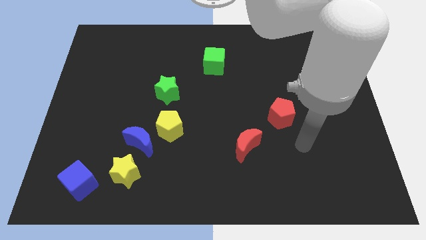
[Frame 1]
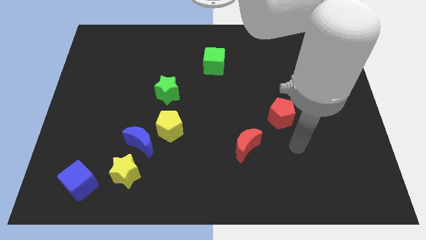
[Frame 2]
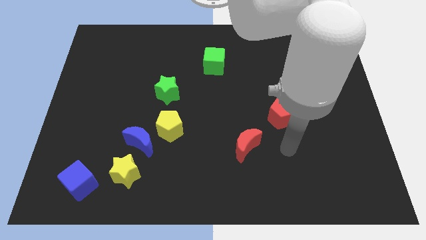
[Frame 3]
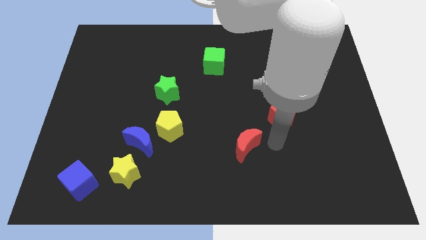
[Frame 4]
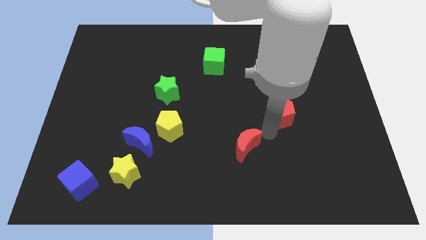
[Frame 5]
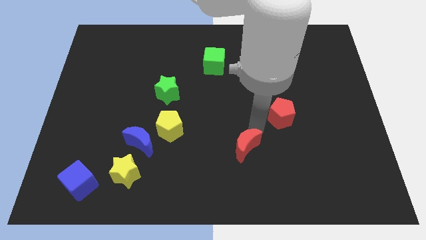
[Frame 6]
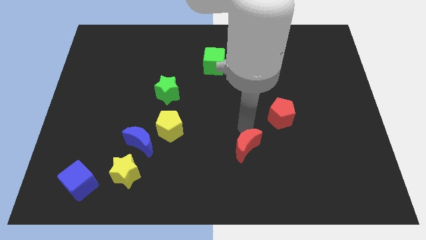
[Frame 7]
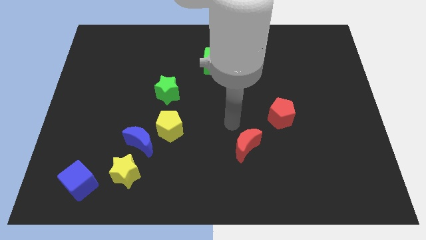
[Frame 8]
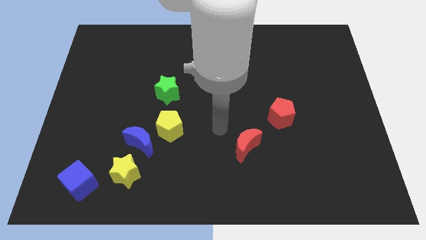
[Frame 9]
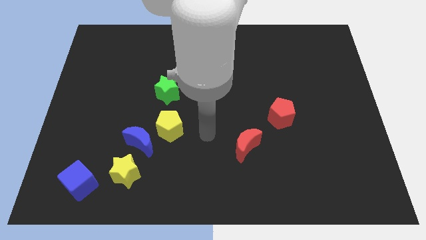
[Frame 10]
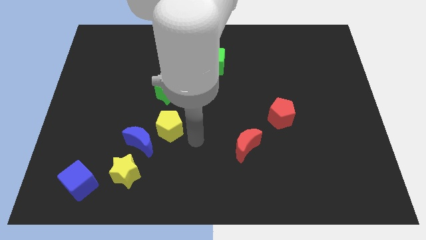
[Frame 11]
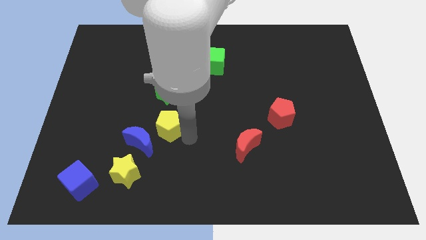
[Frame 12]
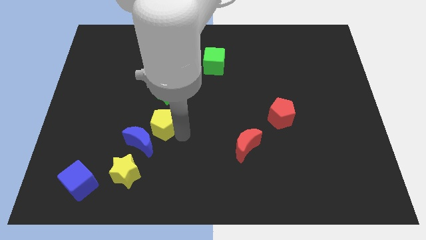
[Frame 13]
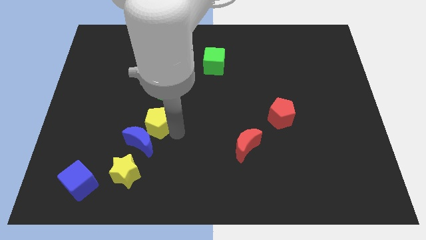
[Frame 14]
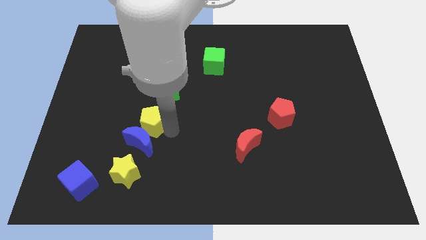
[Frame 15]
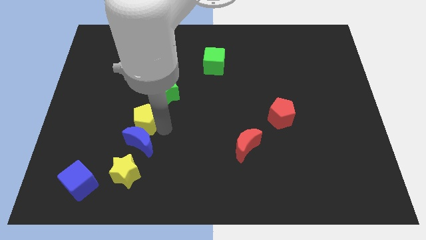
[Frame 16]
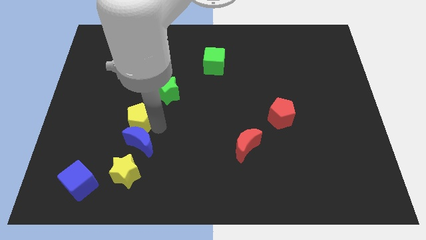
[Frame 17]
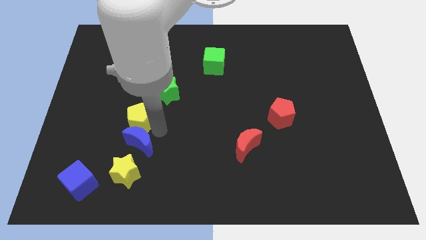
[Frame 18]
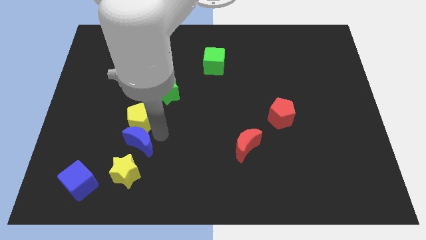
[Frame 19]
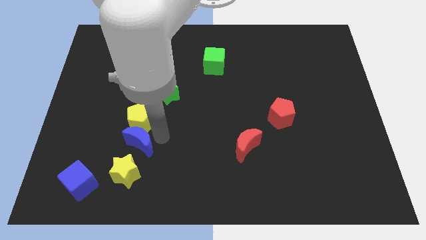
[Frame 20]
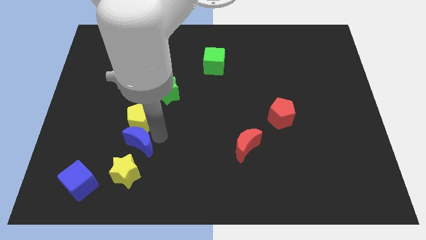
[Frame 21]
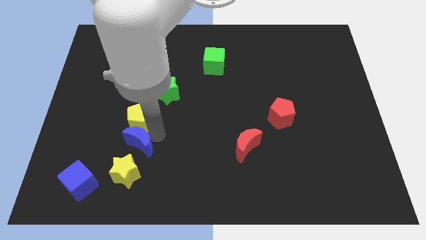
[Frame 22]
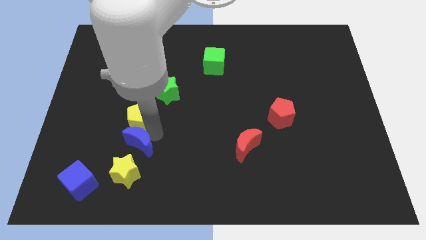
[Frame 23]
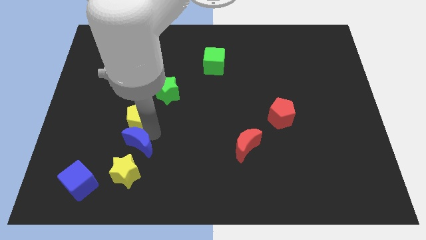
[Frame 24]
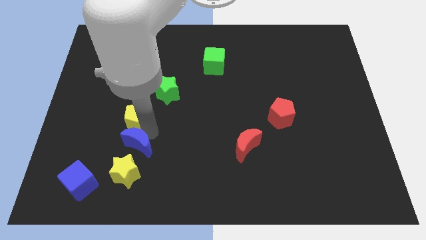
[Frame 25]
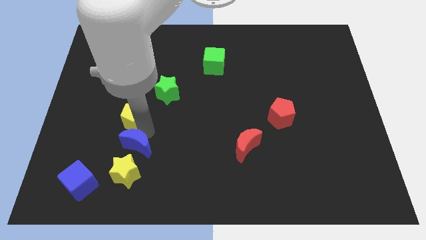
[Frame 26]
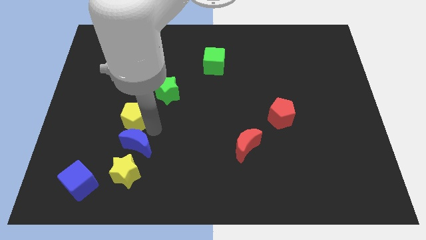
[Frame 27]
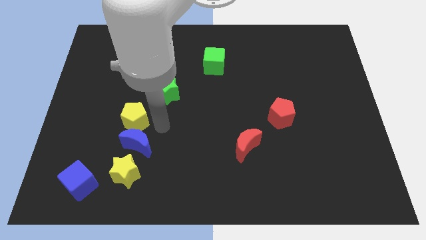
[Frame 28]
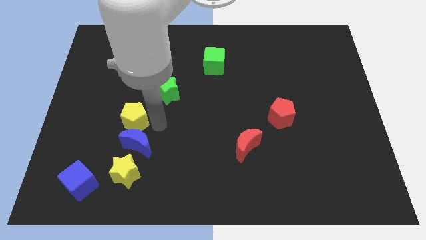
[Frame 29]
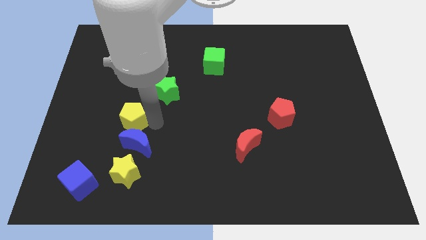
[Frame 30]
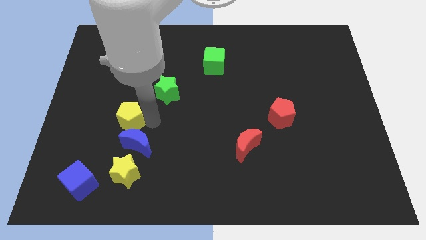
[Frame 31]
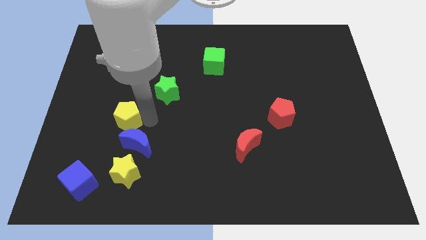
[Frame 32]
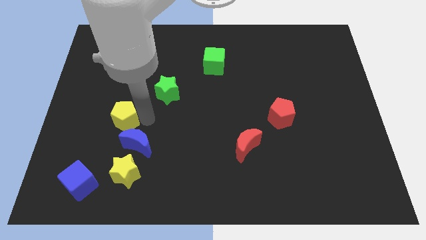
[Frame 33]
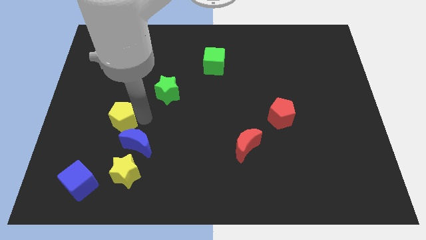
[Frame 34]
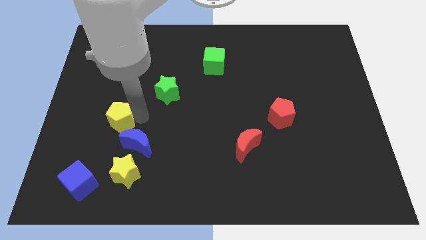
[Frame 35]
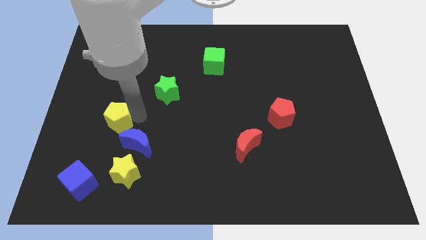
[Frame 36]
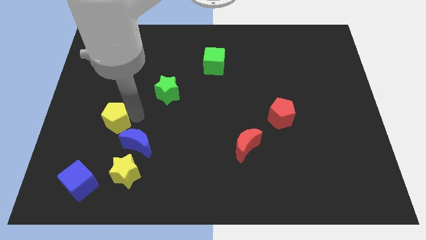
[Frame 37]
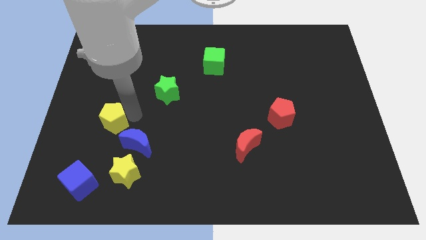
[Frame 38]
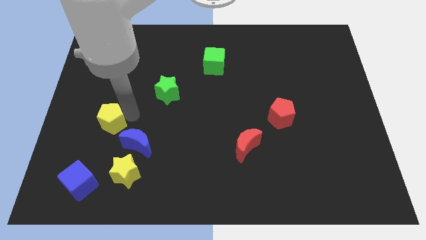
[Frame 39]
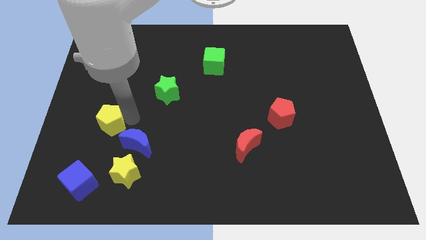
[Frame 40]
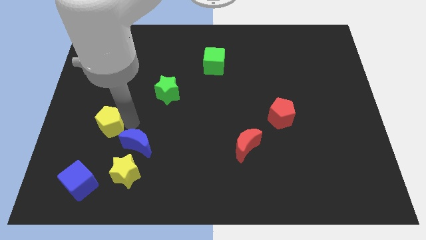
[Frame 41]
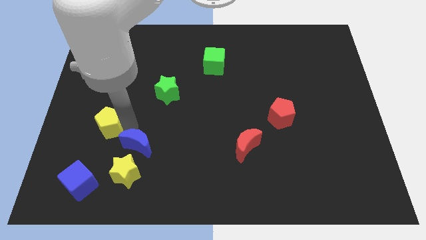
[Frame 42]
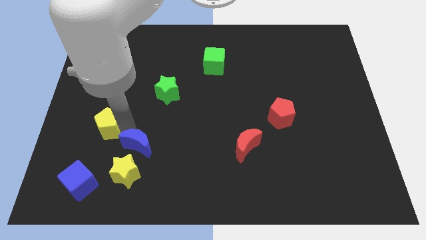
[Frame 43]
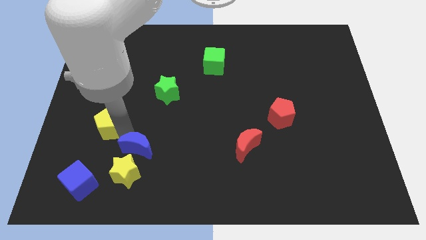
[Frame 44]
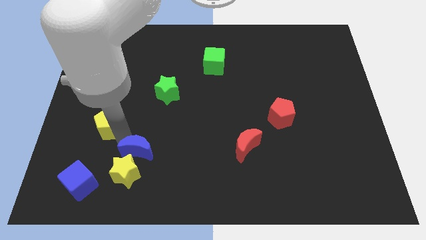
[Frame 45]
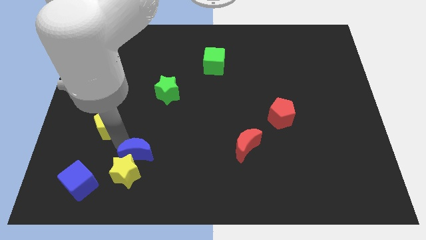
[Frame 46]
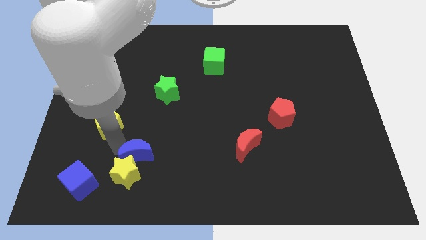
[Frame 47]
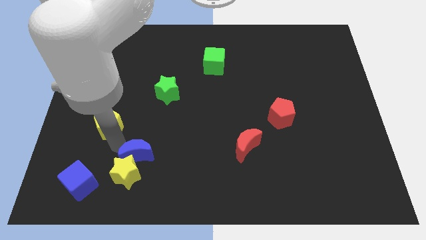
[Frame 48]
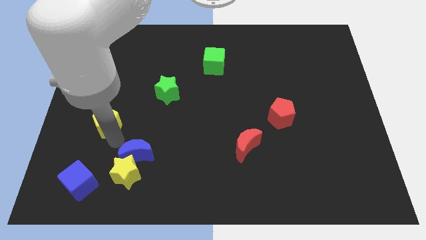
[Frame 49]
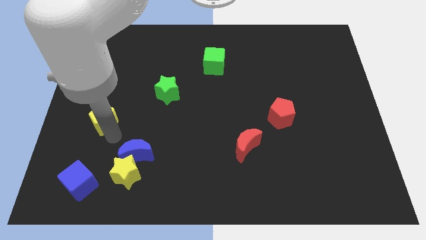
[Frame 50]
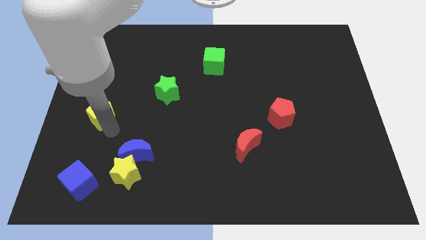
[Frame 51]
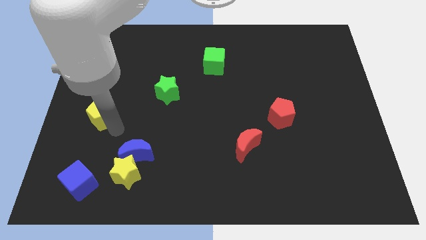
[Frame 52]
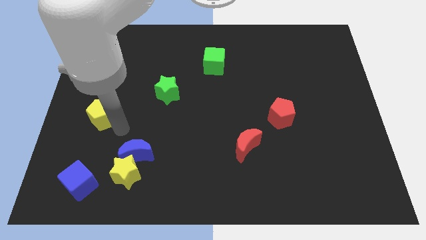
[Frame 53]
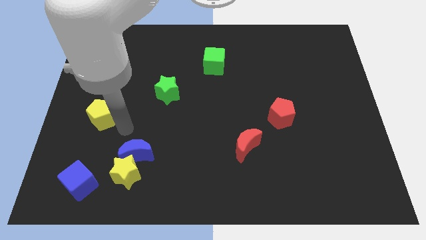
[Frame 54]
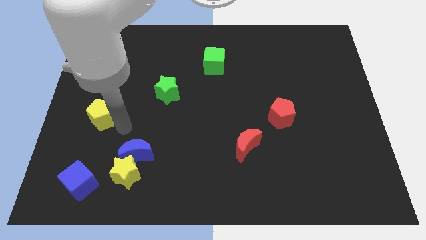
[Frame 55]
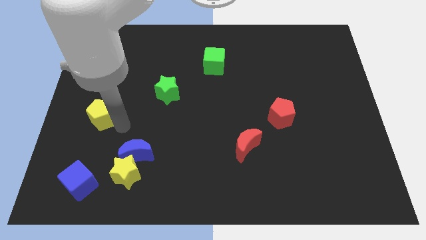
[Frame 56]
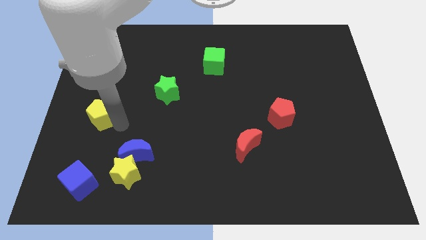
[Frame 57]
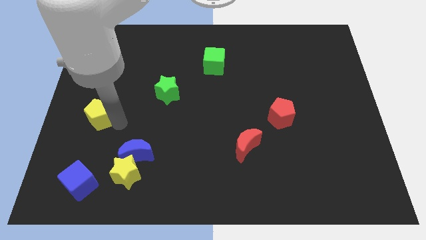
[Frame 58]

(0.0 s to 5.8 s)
move the yellow pentagon to the center left

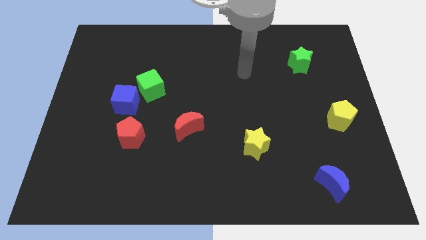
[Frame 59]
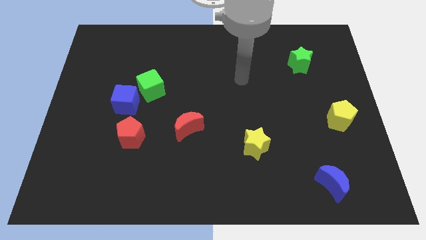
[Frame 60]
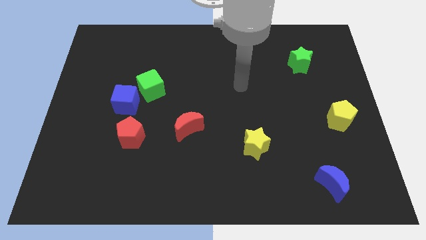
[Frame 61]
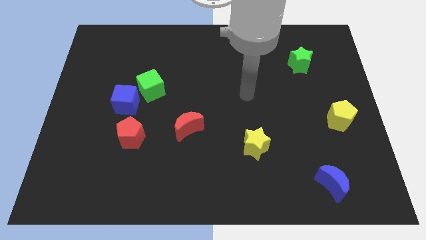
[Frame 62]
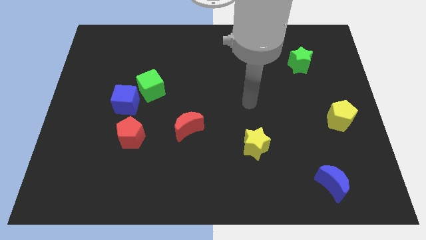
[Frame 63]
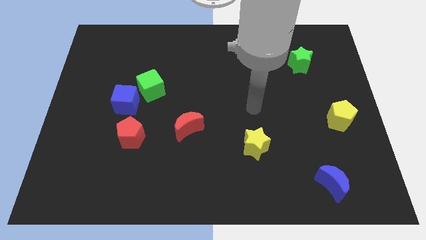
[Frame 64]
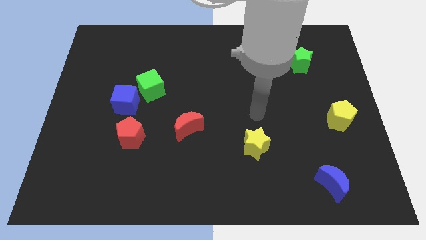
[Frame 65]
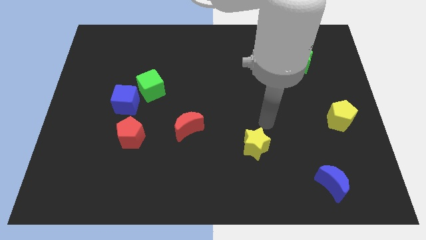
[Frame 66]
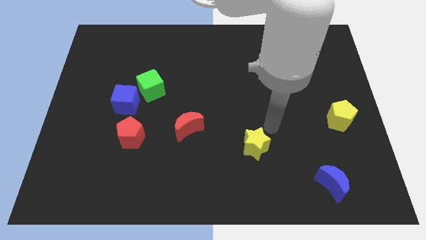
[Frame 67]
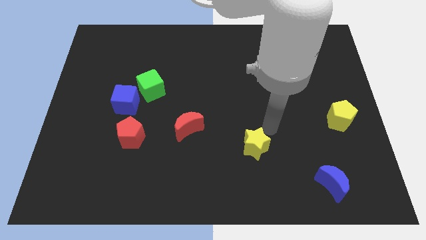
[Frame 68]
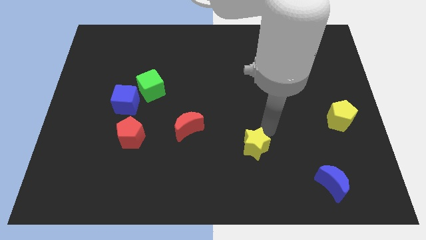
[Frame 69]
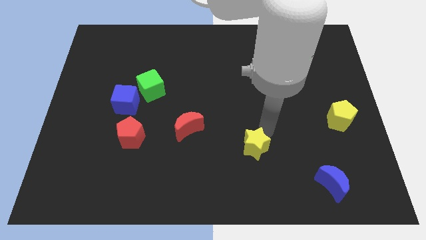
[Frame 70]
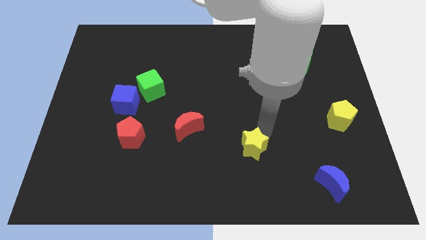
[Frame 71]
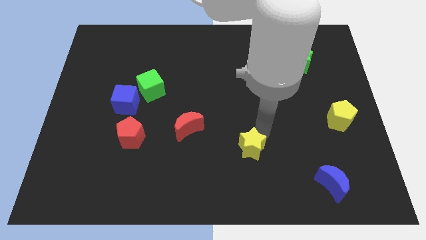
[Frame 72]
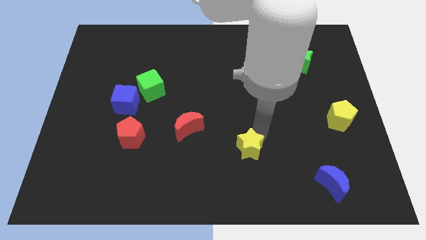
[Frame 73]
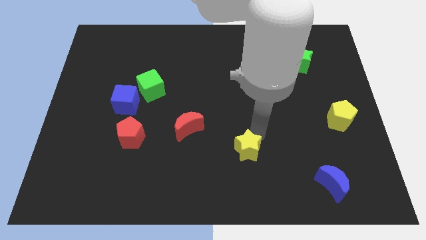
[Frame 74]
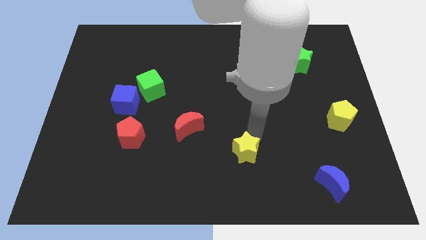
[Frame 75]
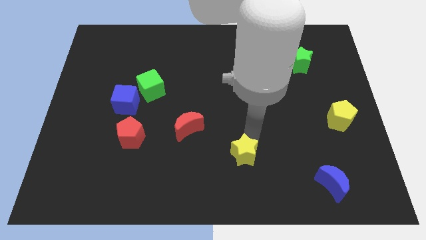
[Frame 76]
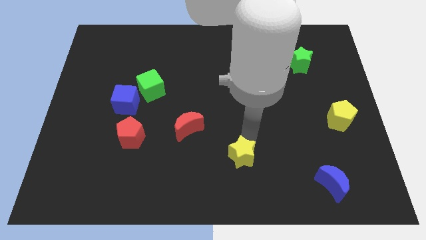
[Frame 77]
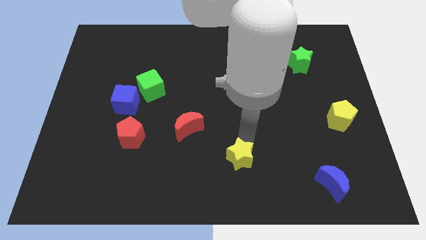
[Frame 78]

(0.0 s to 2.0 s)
push the yellow star to the bottom
